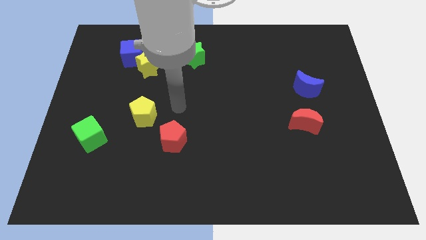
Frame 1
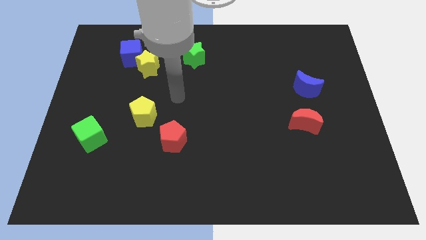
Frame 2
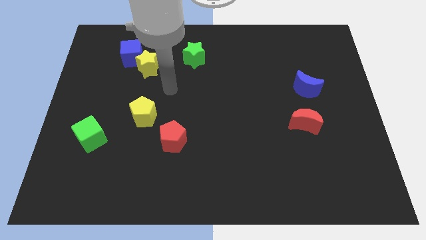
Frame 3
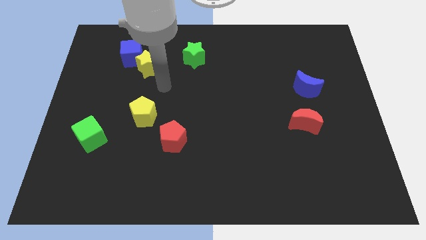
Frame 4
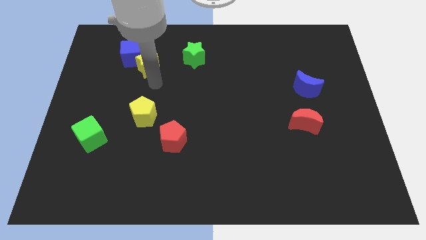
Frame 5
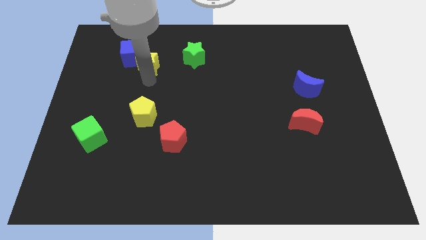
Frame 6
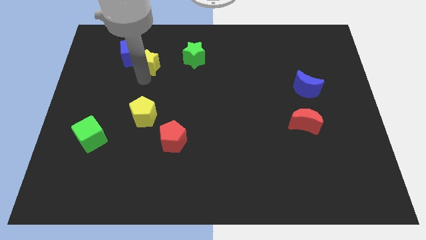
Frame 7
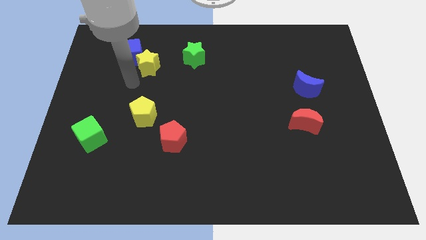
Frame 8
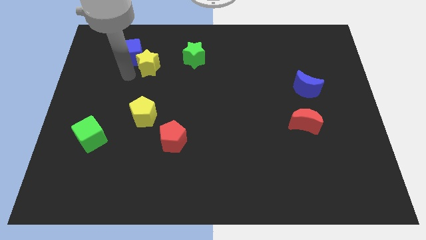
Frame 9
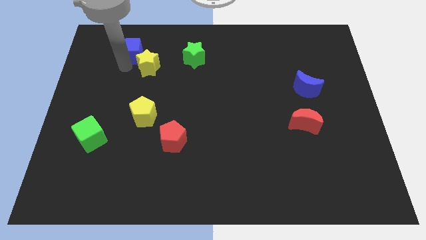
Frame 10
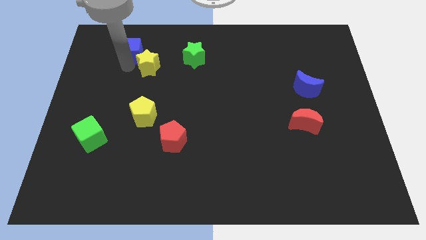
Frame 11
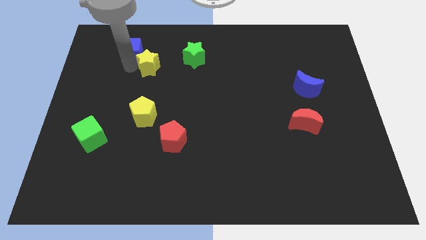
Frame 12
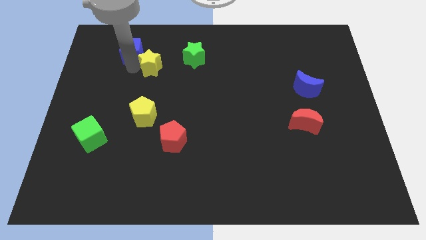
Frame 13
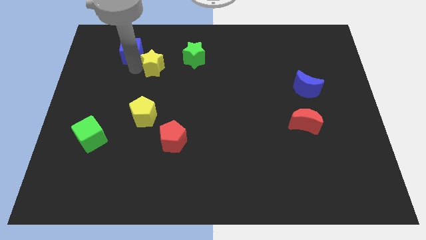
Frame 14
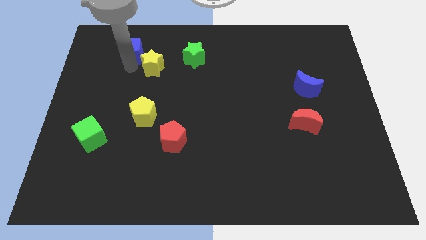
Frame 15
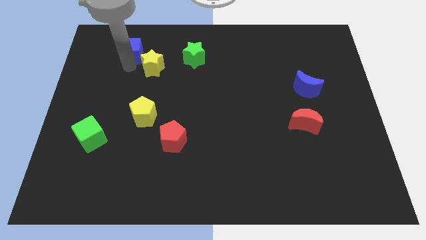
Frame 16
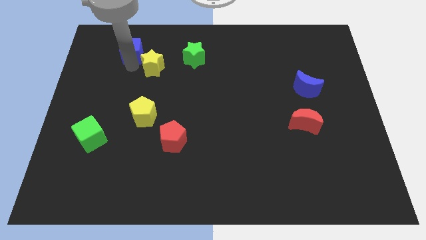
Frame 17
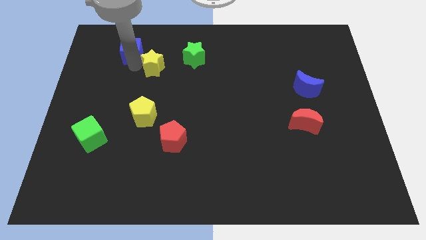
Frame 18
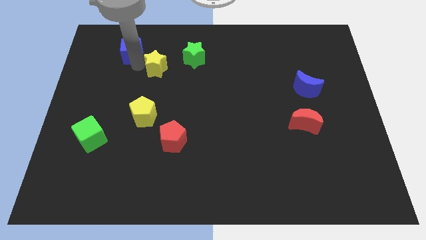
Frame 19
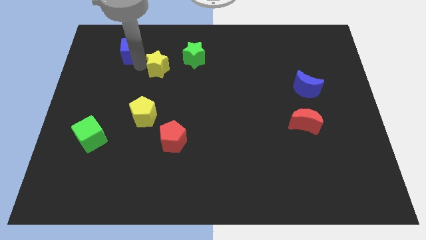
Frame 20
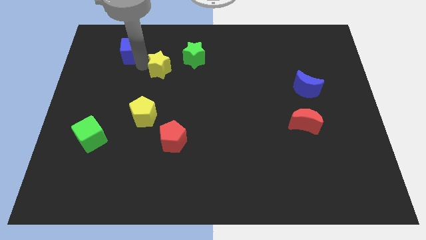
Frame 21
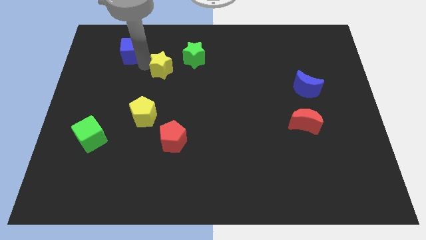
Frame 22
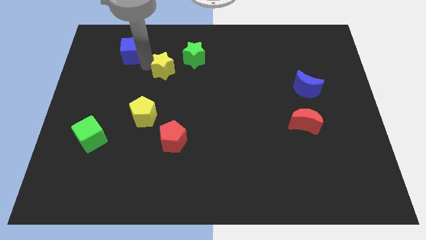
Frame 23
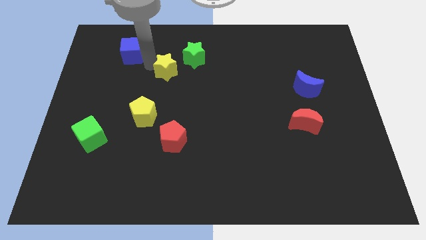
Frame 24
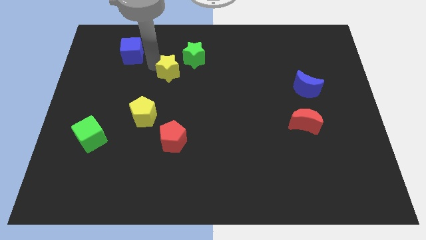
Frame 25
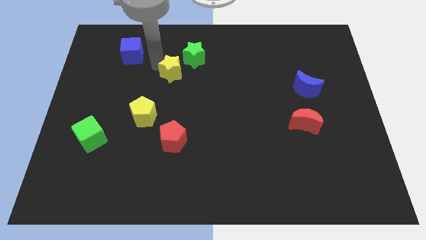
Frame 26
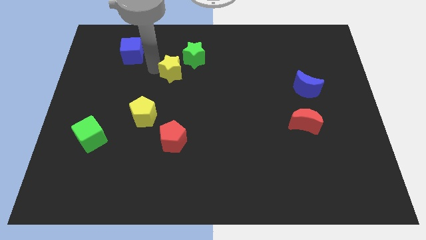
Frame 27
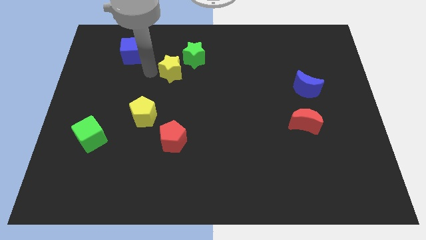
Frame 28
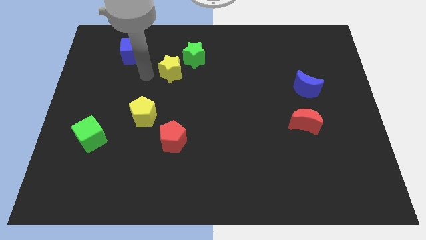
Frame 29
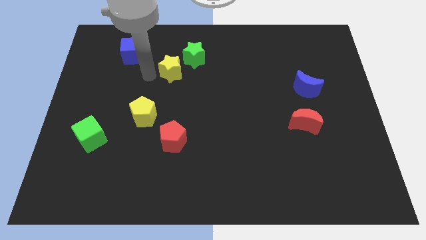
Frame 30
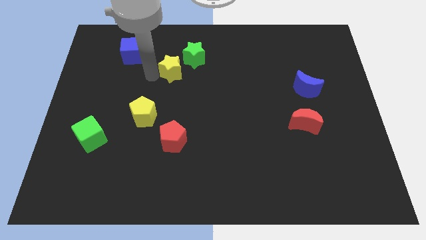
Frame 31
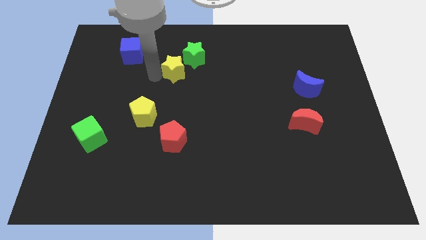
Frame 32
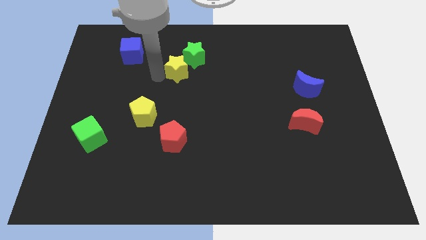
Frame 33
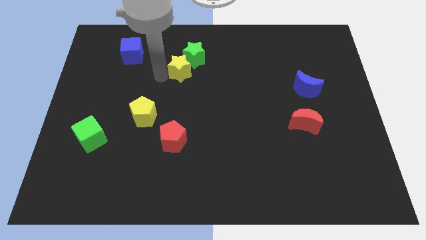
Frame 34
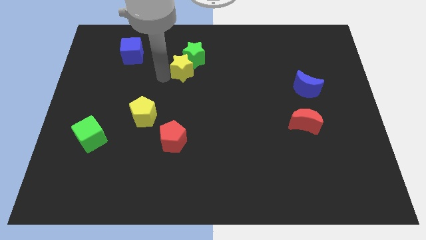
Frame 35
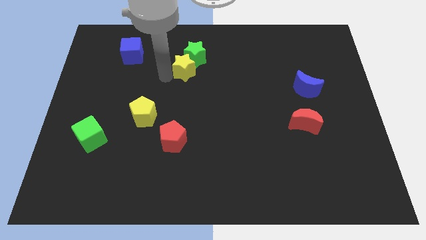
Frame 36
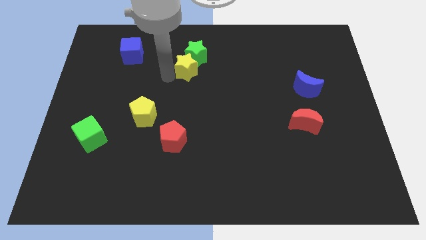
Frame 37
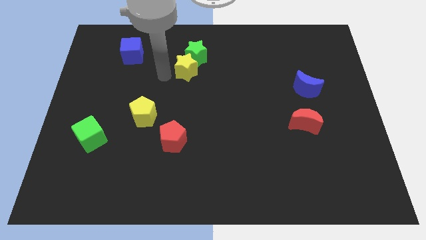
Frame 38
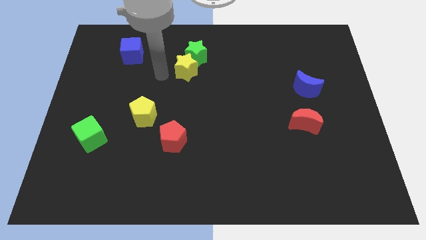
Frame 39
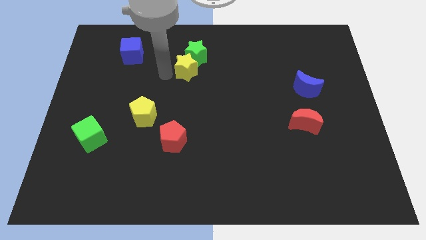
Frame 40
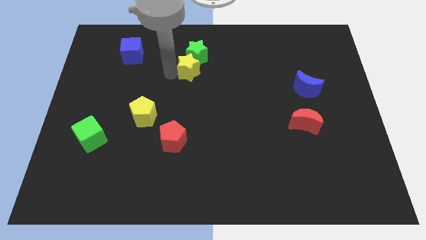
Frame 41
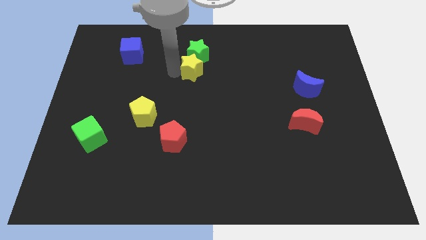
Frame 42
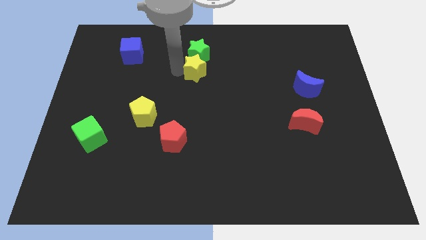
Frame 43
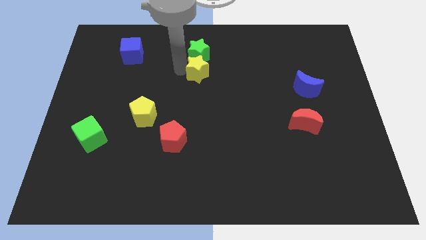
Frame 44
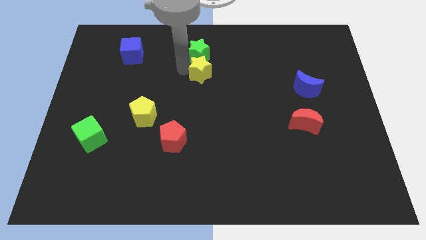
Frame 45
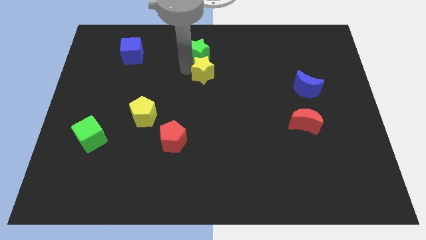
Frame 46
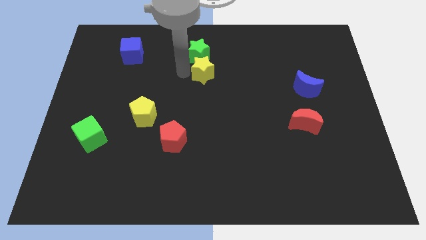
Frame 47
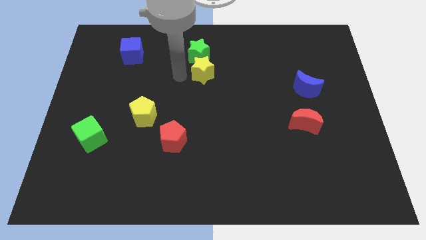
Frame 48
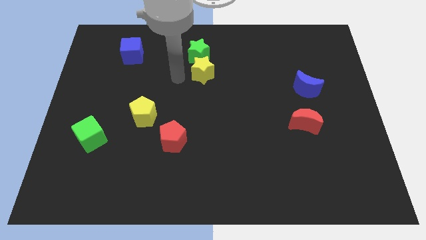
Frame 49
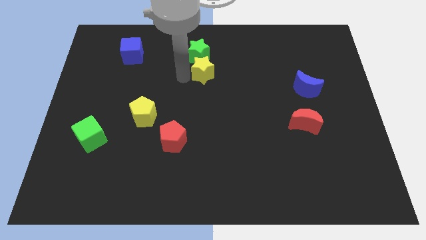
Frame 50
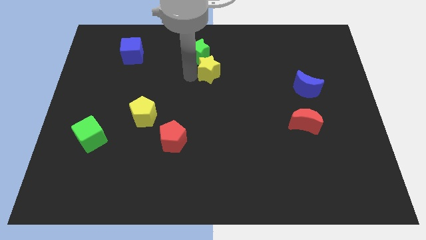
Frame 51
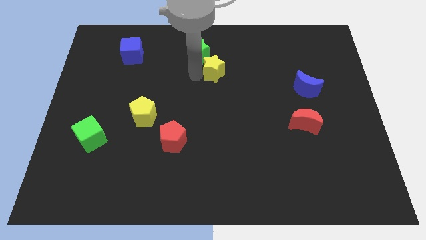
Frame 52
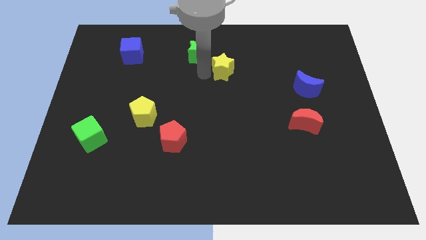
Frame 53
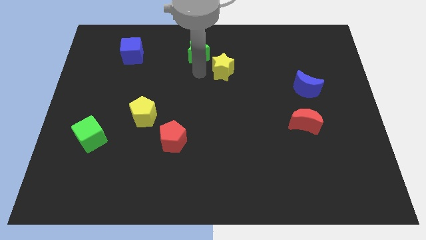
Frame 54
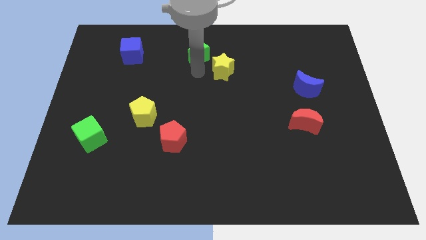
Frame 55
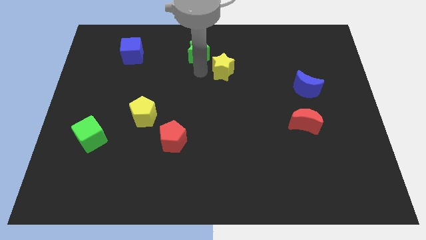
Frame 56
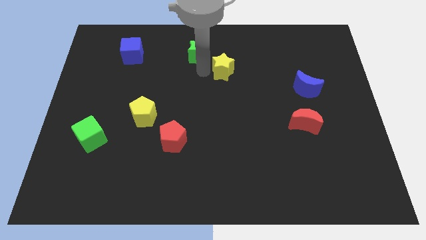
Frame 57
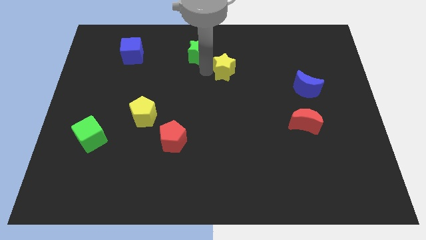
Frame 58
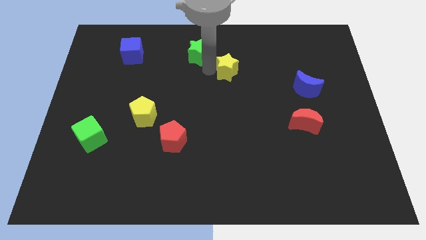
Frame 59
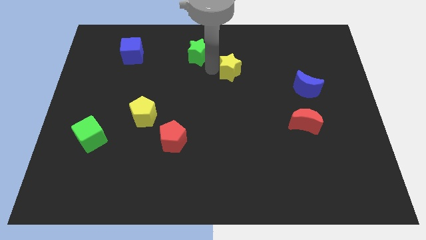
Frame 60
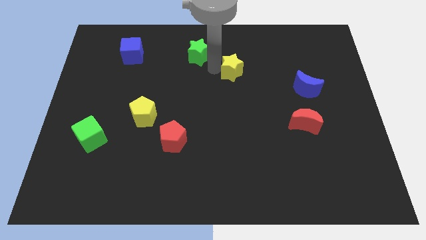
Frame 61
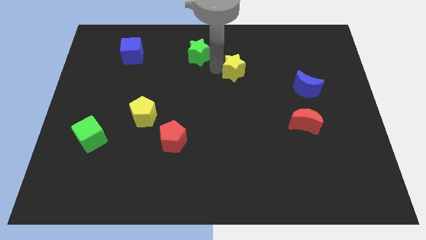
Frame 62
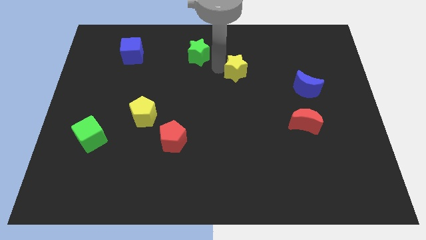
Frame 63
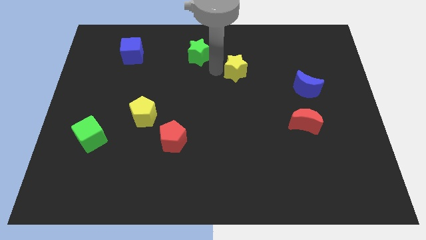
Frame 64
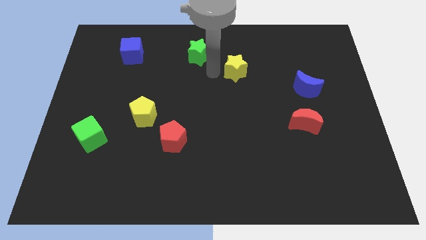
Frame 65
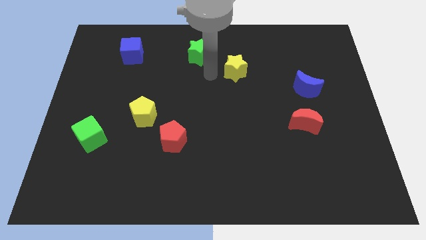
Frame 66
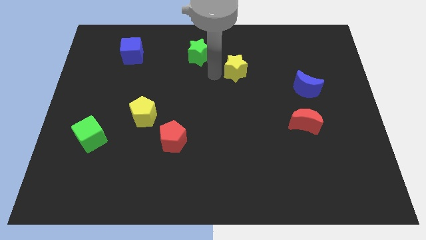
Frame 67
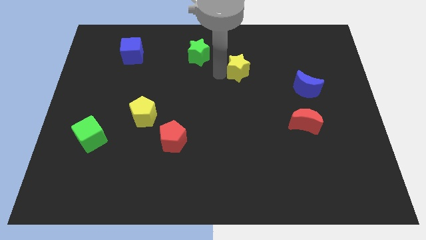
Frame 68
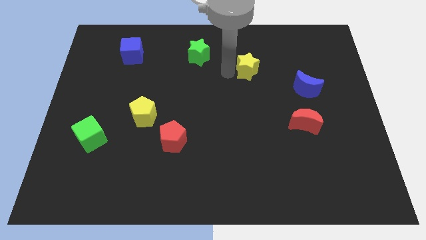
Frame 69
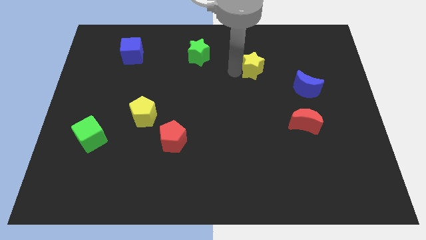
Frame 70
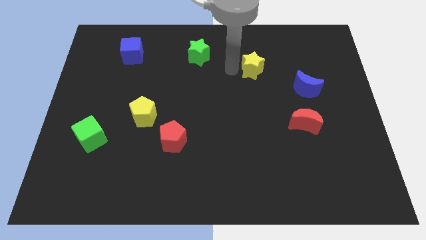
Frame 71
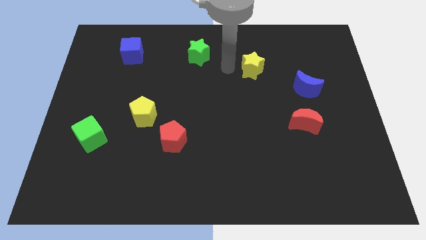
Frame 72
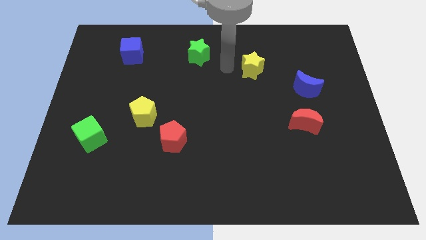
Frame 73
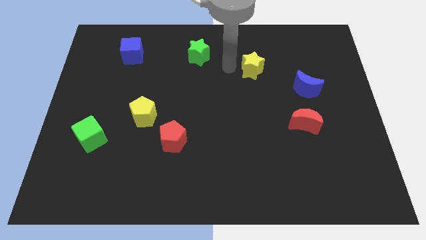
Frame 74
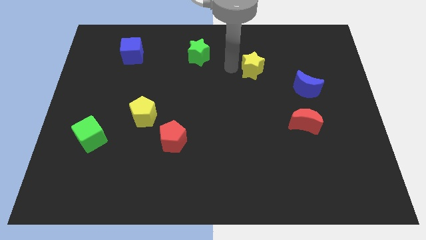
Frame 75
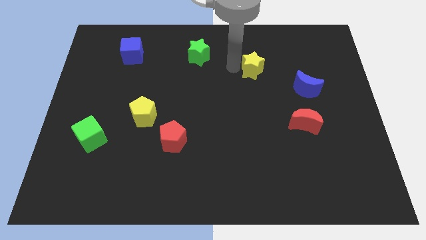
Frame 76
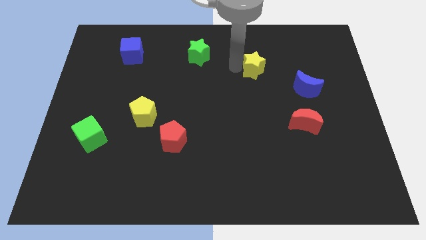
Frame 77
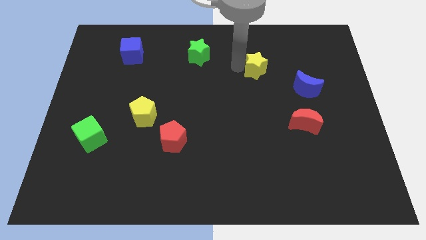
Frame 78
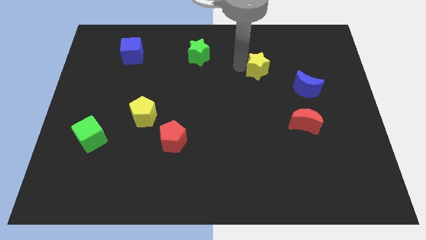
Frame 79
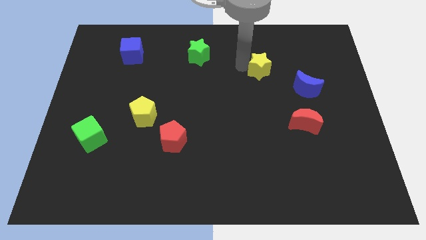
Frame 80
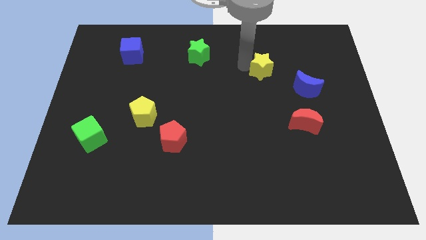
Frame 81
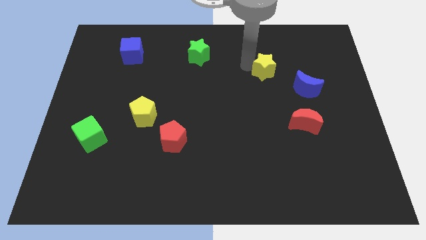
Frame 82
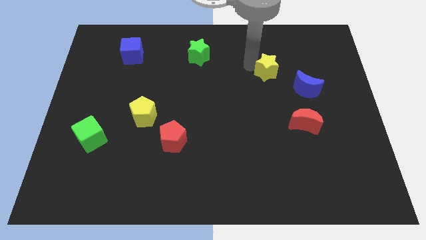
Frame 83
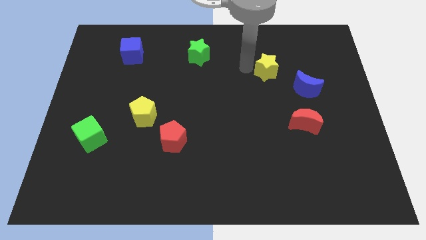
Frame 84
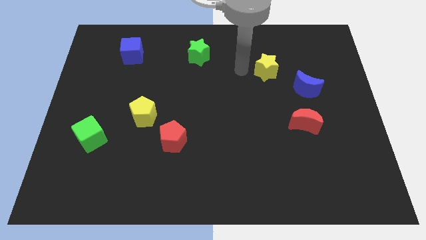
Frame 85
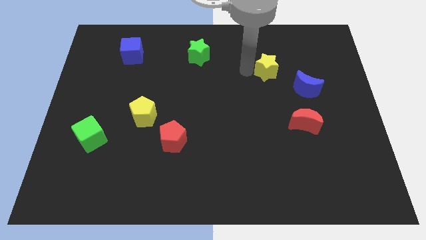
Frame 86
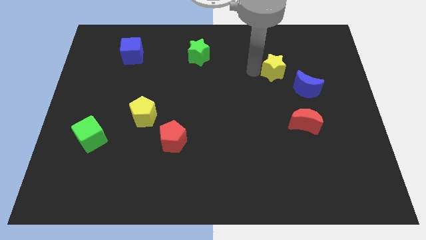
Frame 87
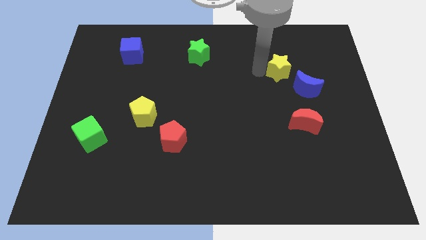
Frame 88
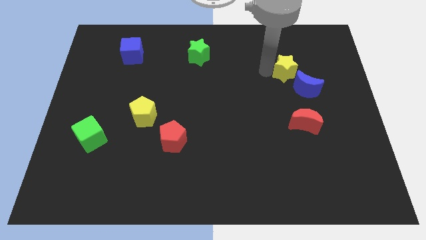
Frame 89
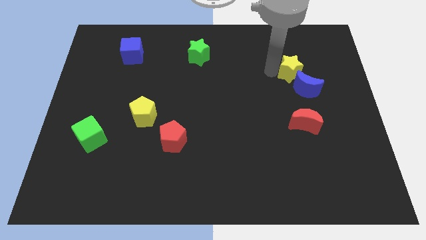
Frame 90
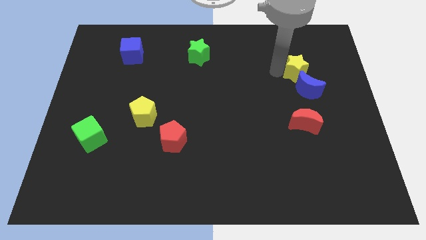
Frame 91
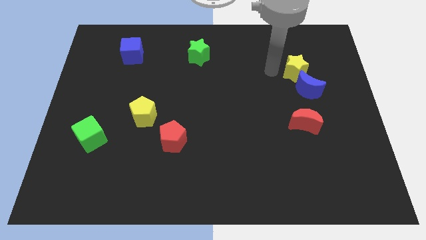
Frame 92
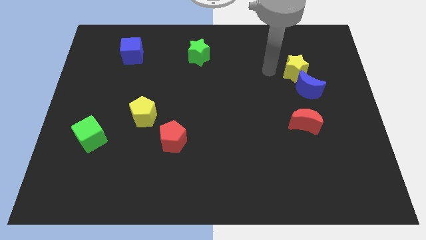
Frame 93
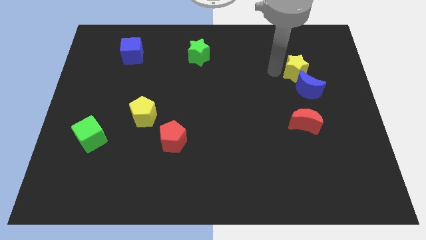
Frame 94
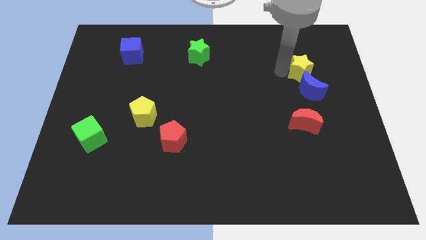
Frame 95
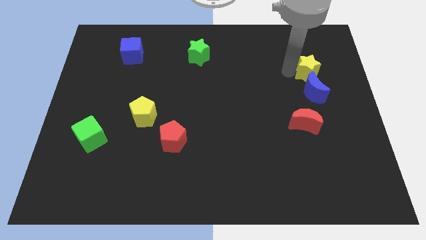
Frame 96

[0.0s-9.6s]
move the yellow star to the top right side of the blue moon
